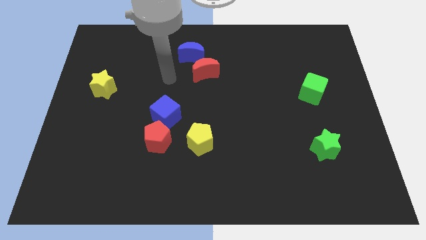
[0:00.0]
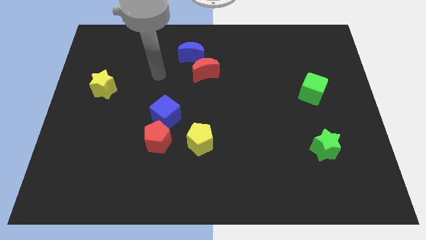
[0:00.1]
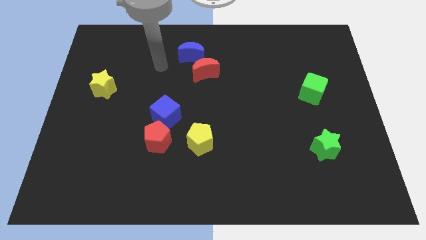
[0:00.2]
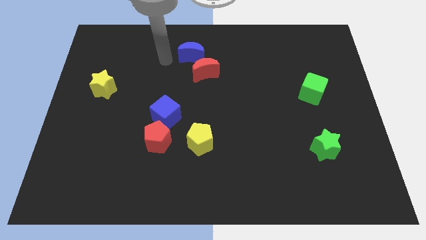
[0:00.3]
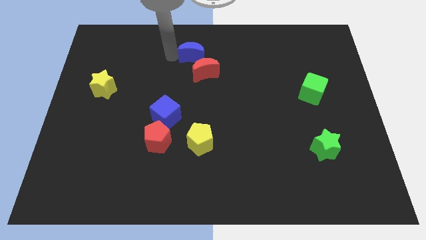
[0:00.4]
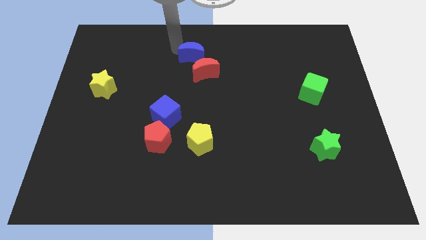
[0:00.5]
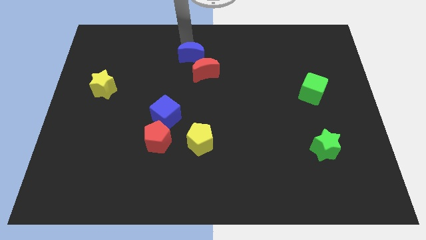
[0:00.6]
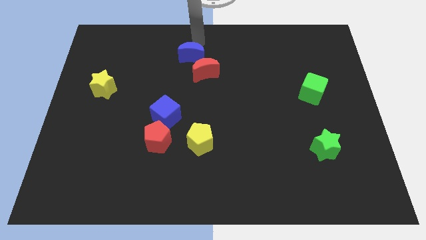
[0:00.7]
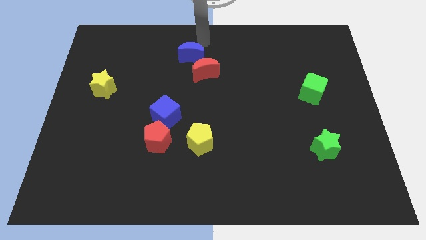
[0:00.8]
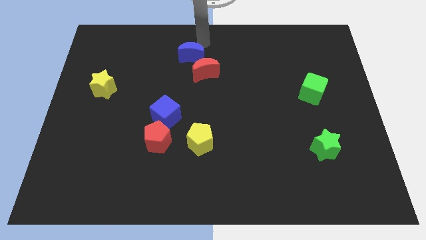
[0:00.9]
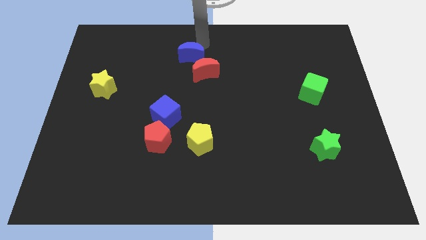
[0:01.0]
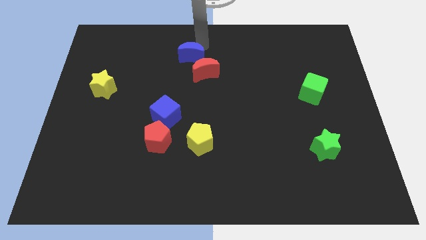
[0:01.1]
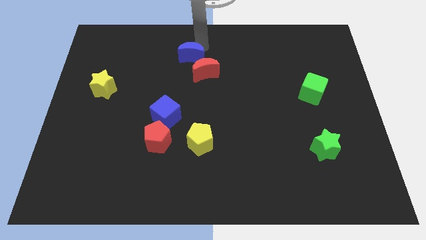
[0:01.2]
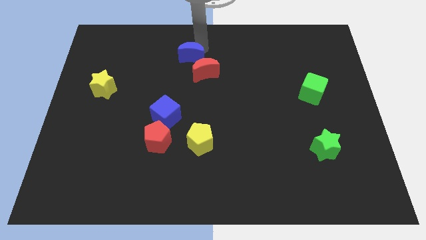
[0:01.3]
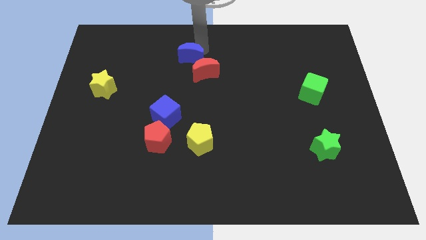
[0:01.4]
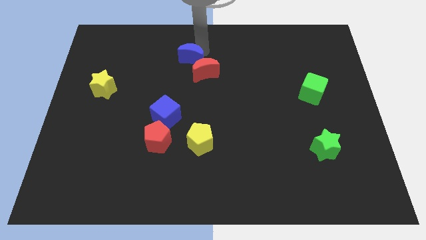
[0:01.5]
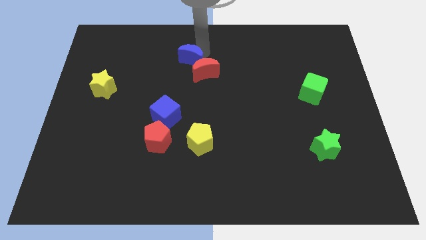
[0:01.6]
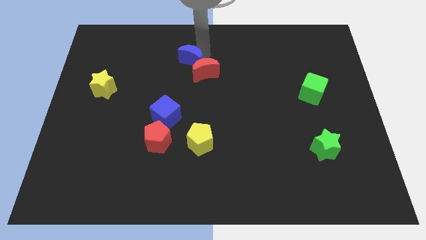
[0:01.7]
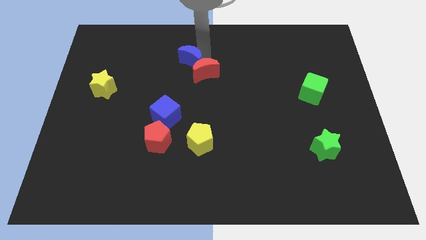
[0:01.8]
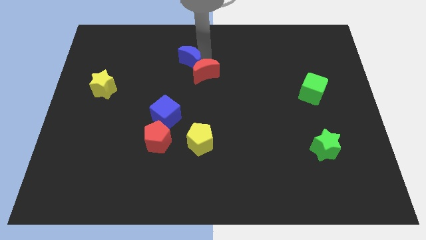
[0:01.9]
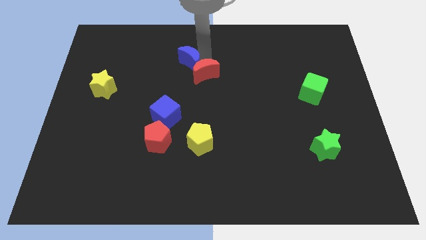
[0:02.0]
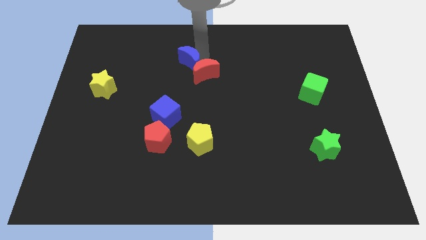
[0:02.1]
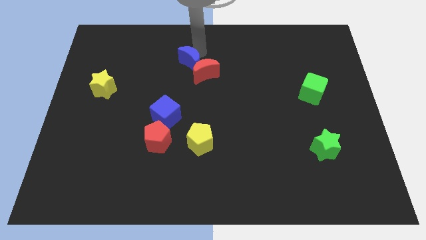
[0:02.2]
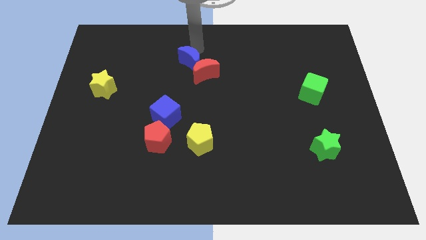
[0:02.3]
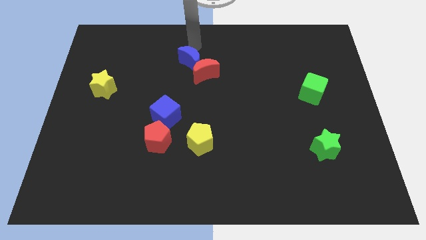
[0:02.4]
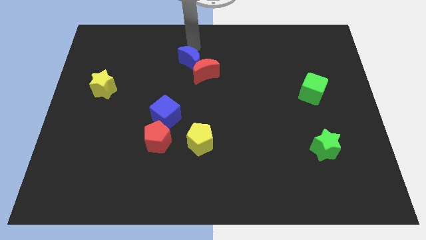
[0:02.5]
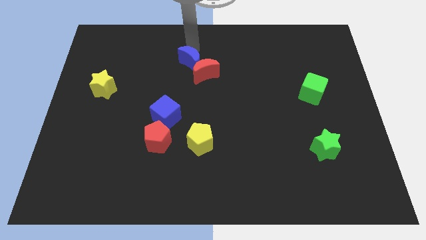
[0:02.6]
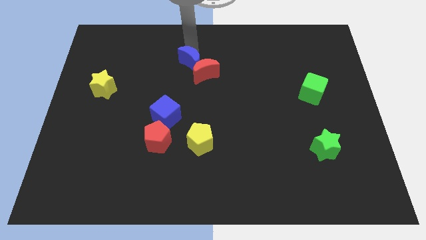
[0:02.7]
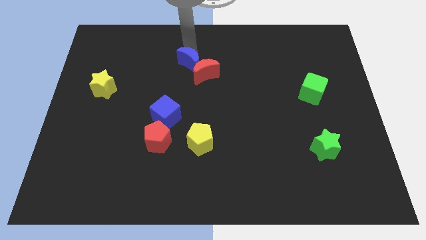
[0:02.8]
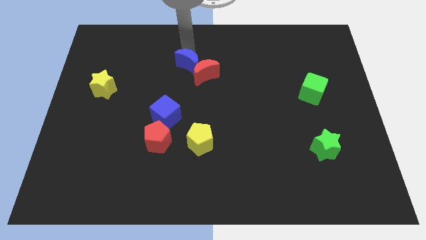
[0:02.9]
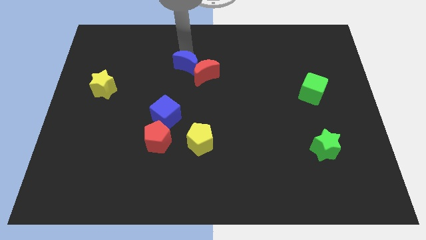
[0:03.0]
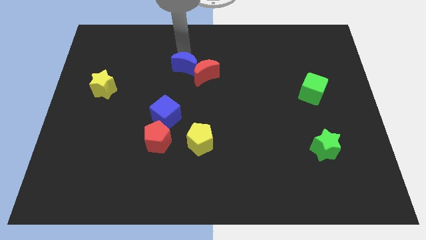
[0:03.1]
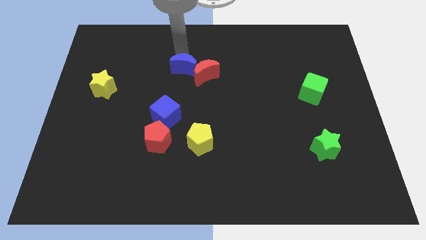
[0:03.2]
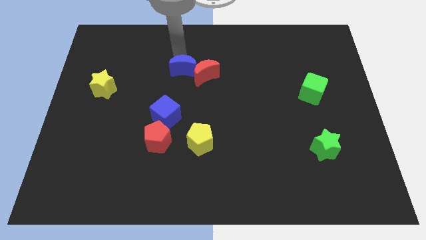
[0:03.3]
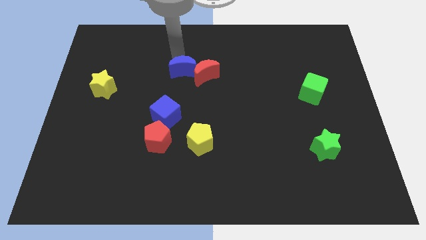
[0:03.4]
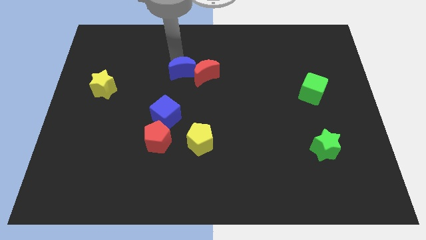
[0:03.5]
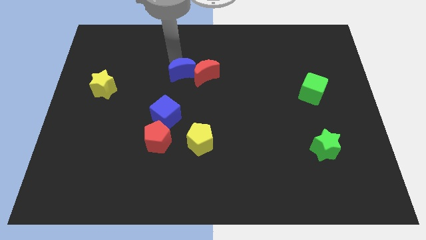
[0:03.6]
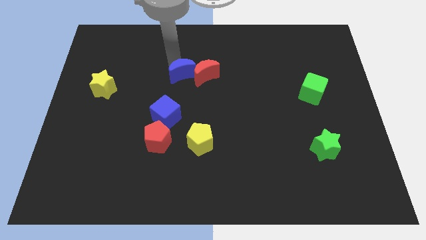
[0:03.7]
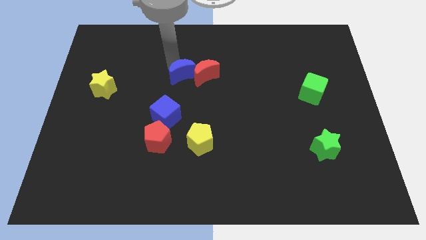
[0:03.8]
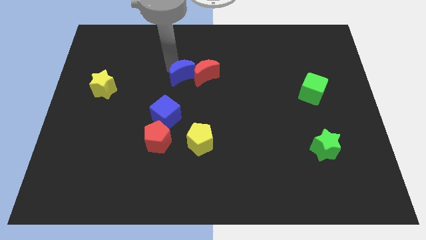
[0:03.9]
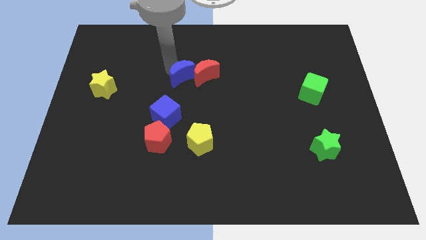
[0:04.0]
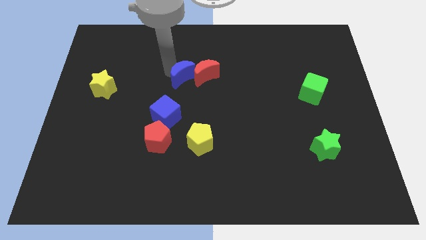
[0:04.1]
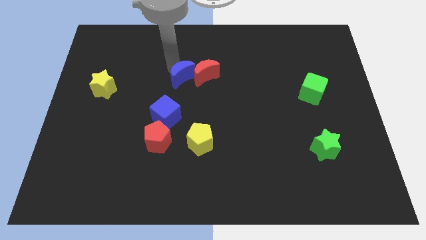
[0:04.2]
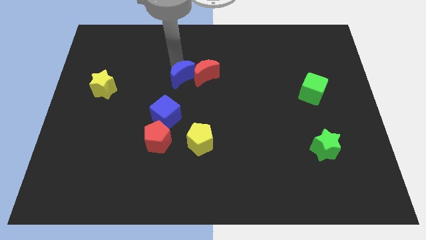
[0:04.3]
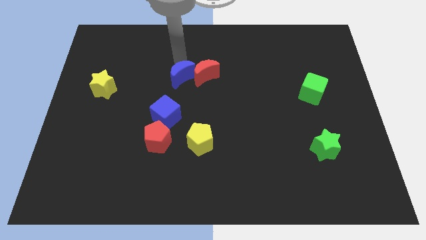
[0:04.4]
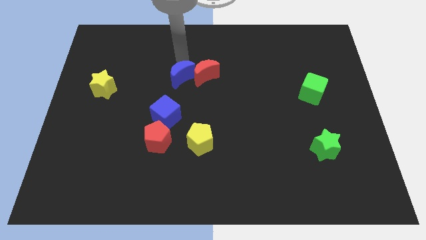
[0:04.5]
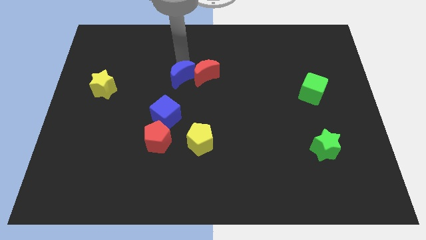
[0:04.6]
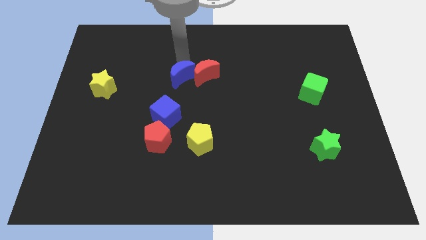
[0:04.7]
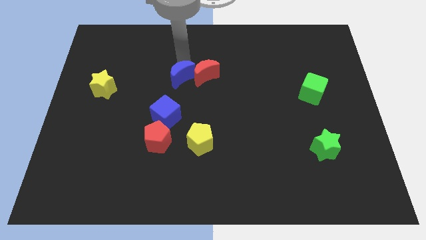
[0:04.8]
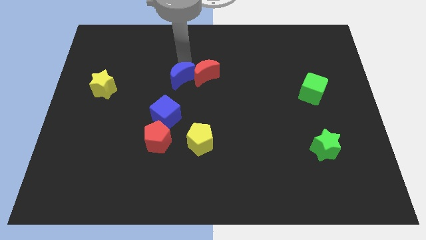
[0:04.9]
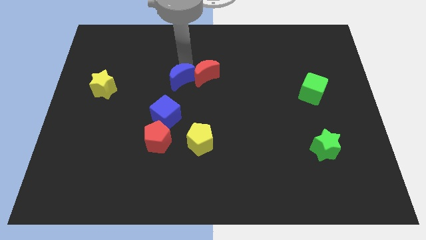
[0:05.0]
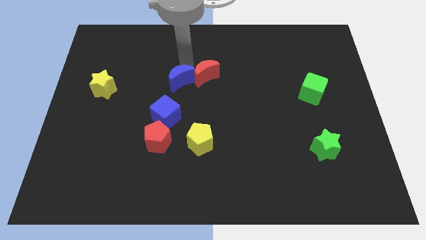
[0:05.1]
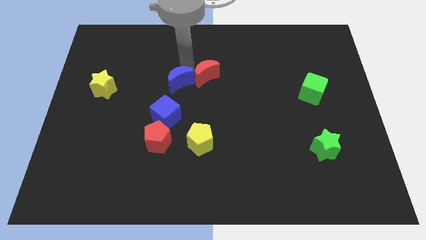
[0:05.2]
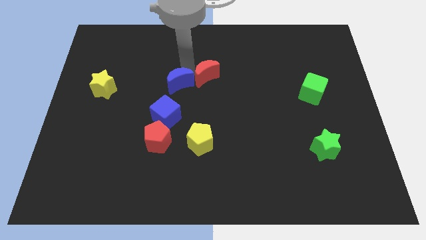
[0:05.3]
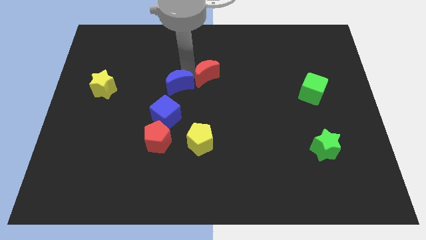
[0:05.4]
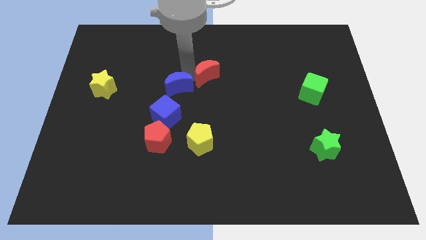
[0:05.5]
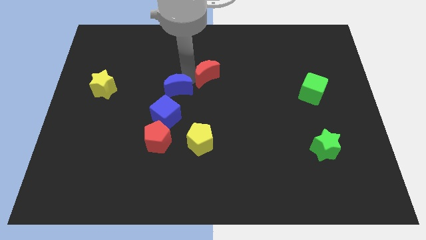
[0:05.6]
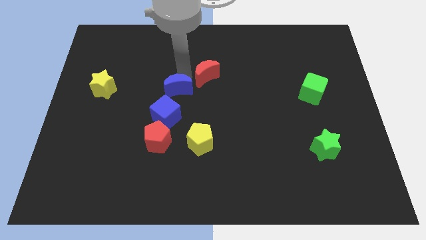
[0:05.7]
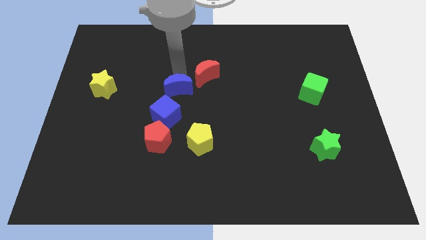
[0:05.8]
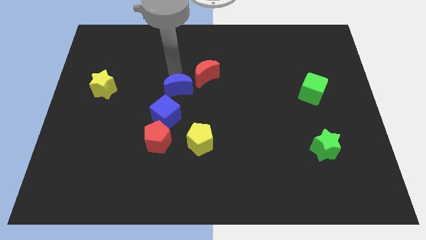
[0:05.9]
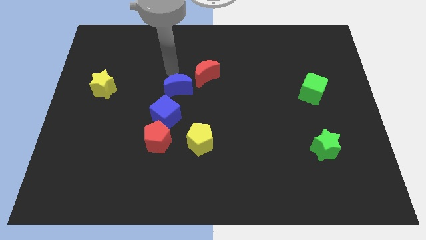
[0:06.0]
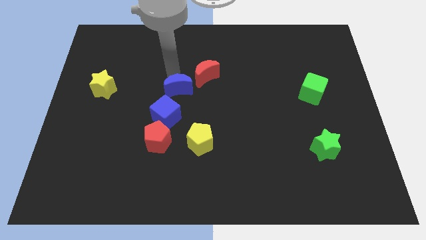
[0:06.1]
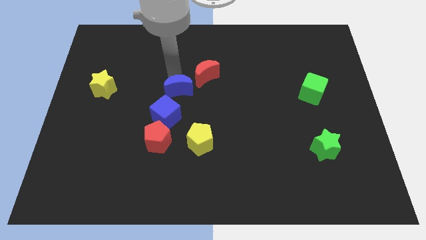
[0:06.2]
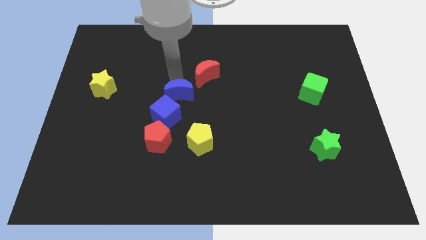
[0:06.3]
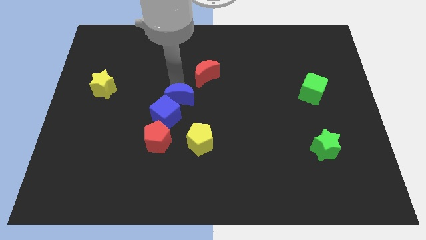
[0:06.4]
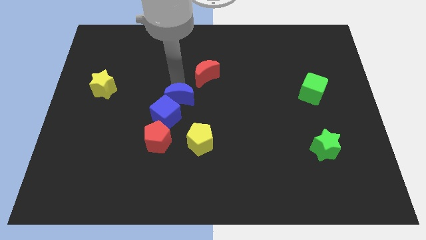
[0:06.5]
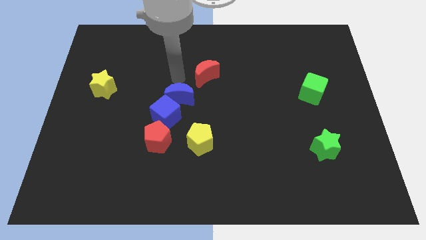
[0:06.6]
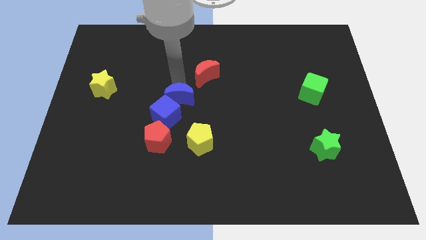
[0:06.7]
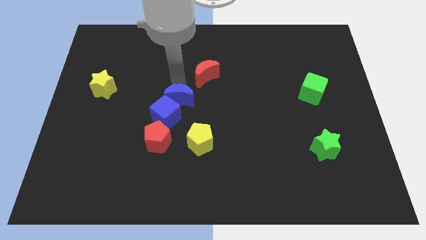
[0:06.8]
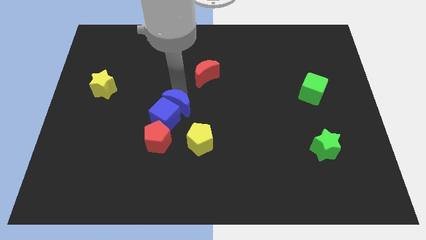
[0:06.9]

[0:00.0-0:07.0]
slide the blue moon to the top right of the red pentagon

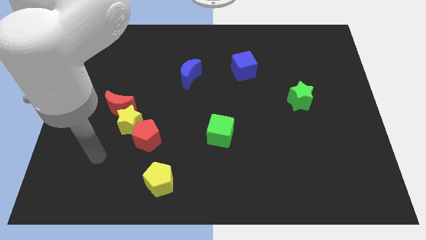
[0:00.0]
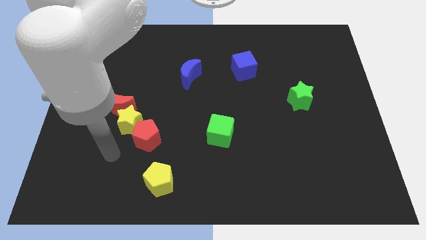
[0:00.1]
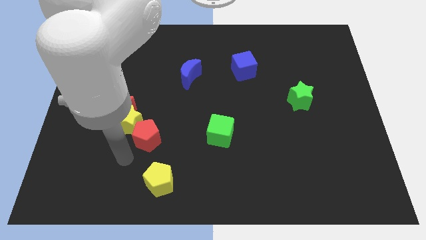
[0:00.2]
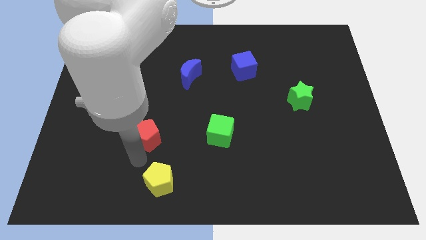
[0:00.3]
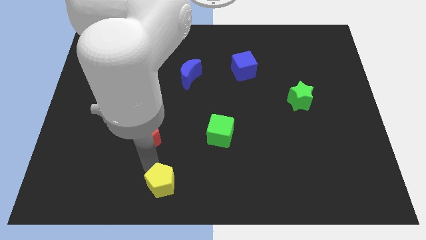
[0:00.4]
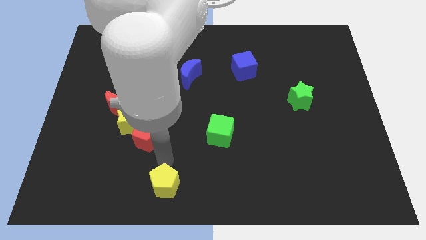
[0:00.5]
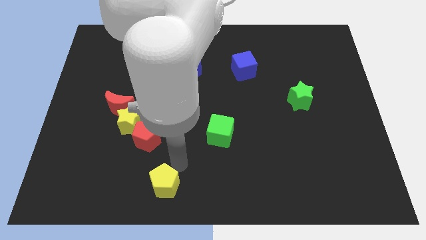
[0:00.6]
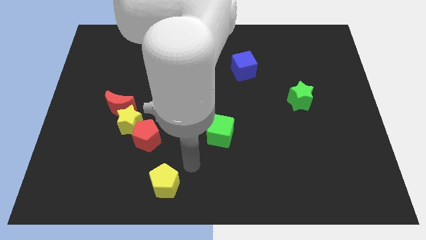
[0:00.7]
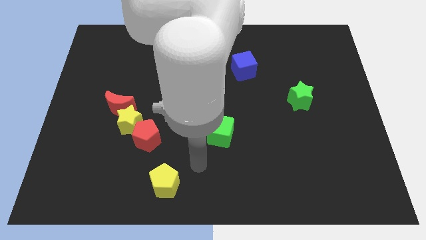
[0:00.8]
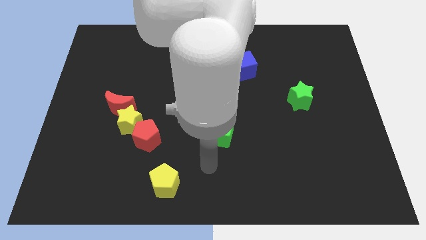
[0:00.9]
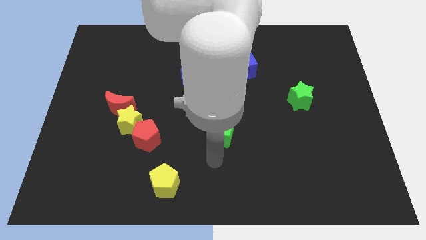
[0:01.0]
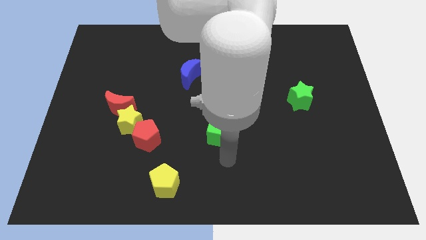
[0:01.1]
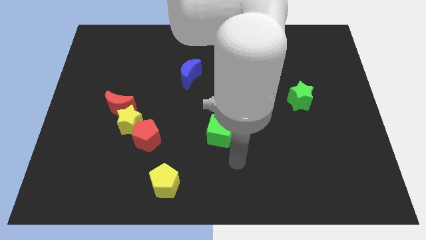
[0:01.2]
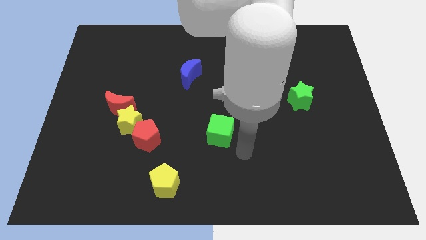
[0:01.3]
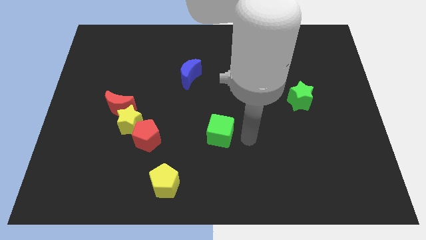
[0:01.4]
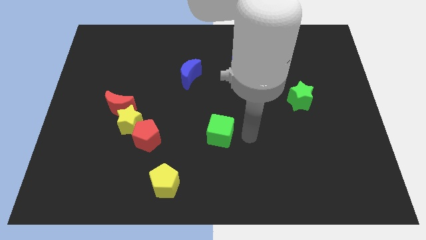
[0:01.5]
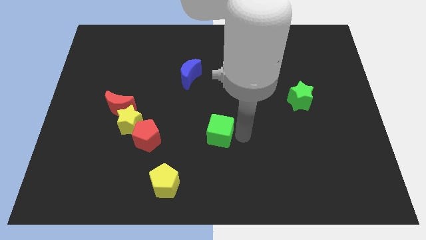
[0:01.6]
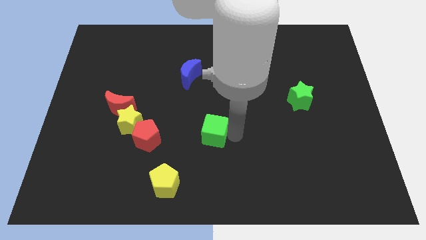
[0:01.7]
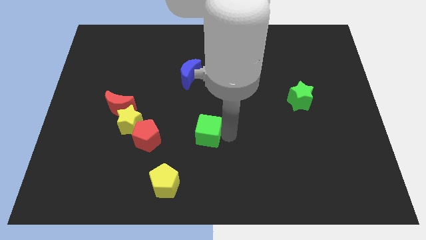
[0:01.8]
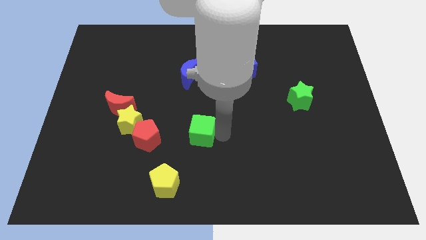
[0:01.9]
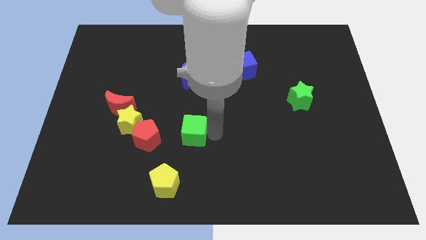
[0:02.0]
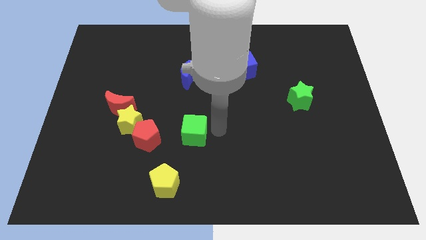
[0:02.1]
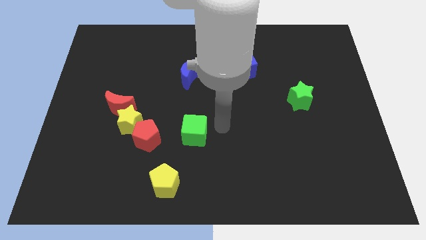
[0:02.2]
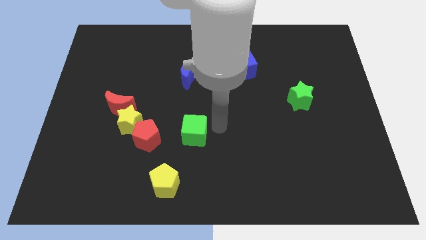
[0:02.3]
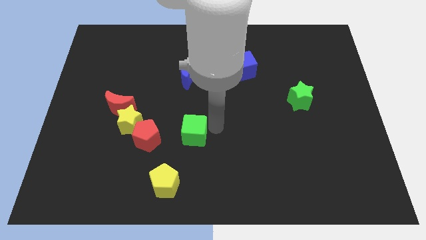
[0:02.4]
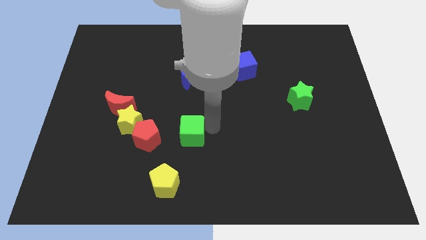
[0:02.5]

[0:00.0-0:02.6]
move the green cube to the top of the yellow pentagon
